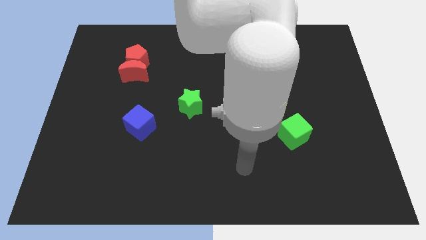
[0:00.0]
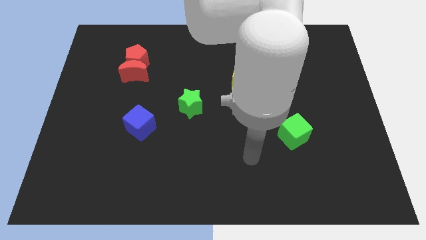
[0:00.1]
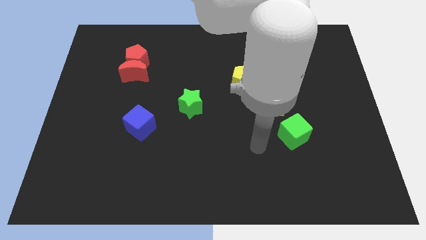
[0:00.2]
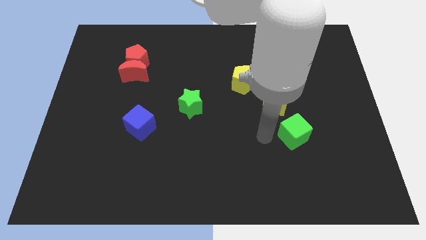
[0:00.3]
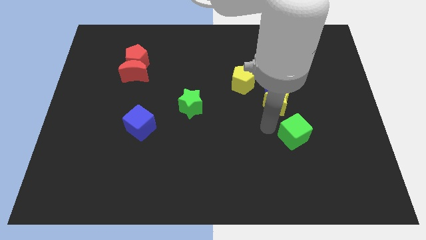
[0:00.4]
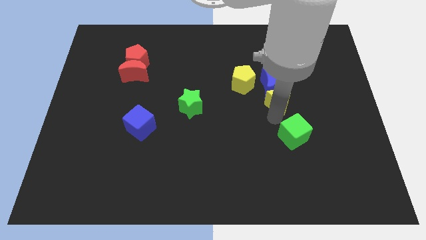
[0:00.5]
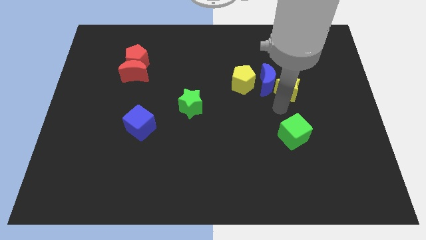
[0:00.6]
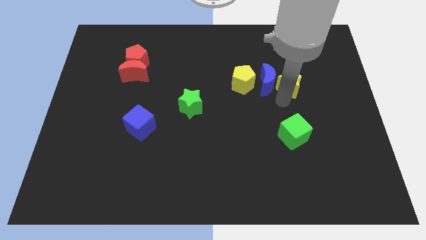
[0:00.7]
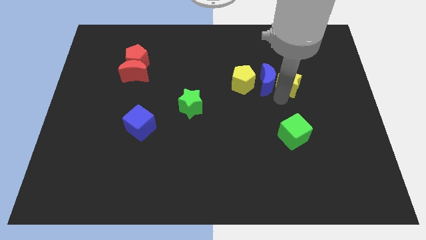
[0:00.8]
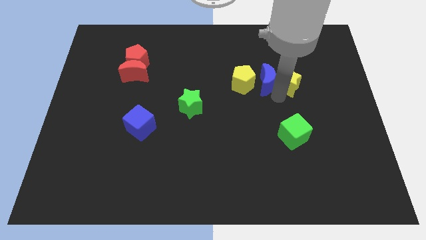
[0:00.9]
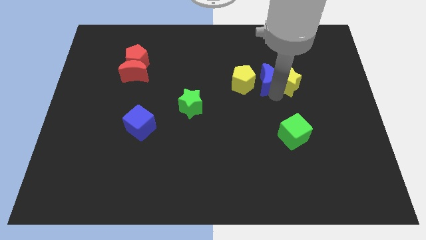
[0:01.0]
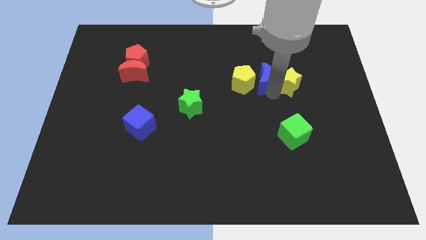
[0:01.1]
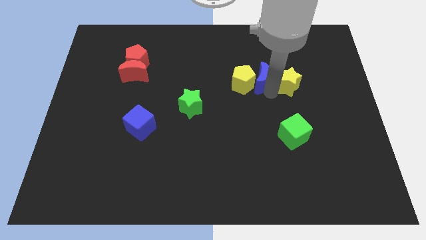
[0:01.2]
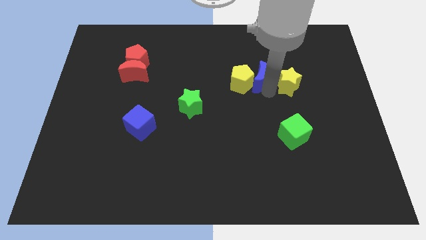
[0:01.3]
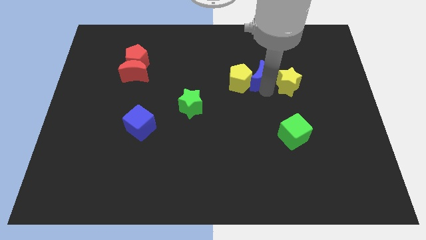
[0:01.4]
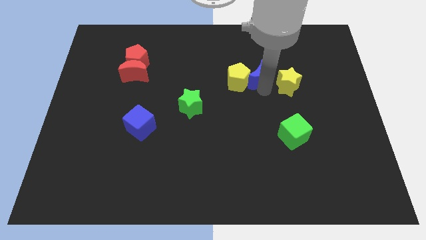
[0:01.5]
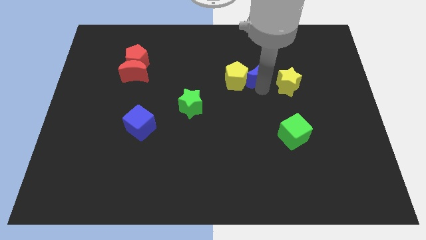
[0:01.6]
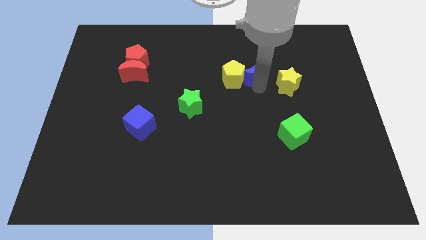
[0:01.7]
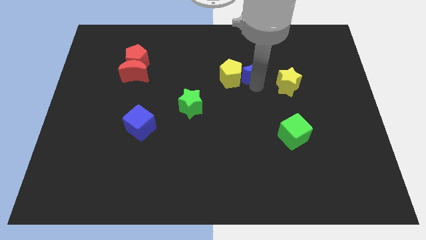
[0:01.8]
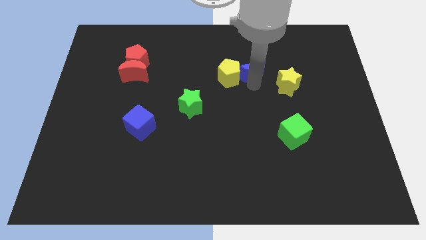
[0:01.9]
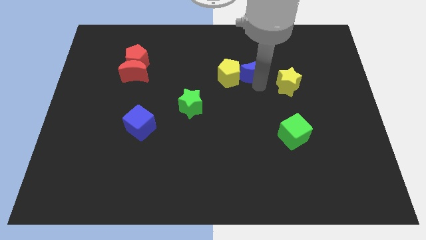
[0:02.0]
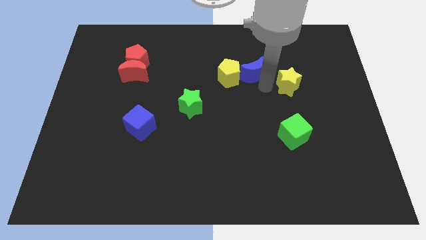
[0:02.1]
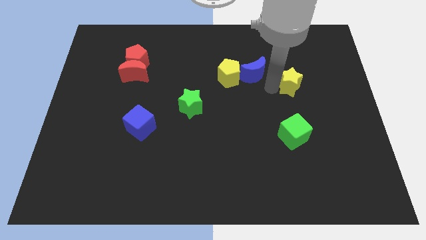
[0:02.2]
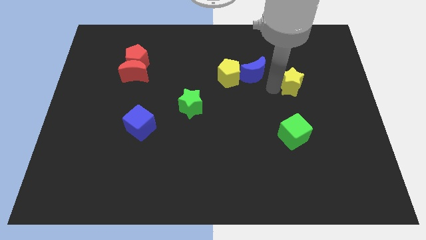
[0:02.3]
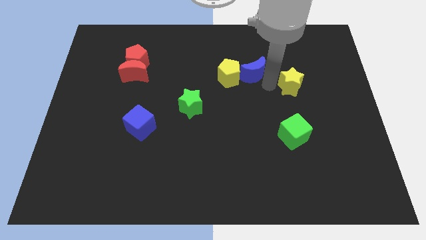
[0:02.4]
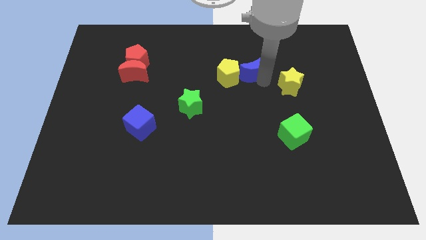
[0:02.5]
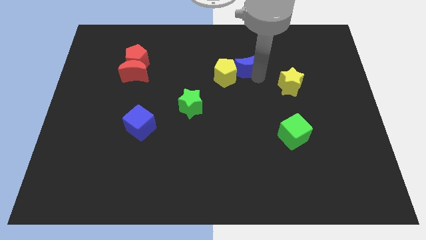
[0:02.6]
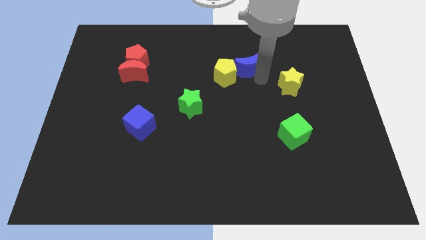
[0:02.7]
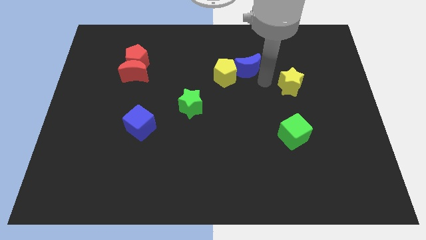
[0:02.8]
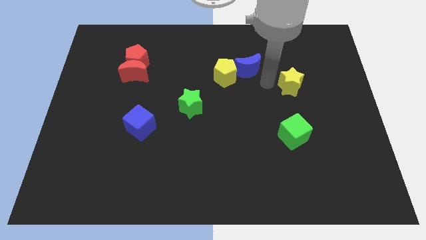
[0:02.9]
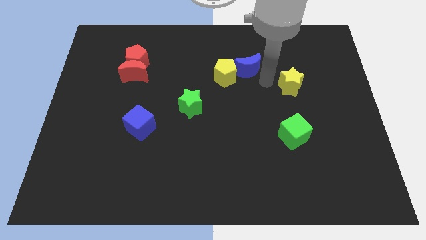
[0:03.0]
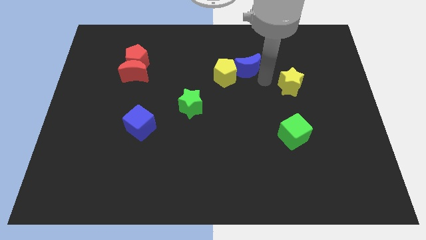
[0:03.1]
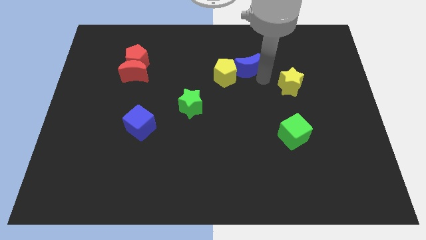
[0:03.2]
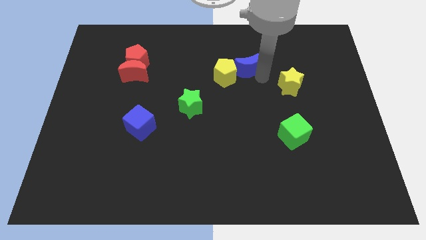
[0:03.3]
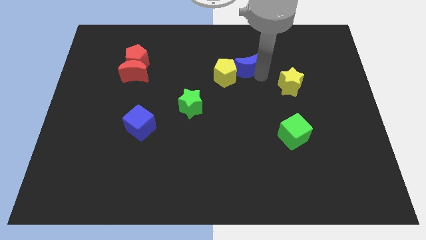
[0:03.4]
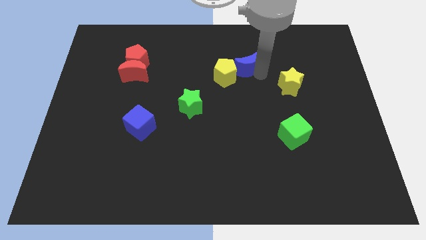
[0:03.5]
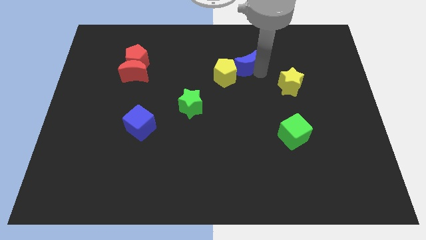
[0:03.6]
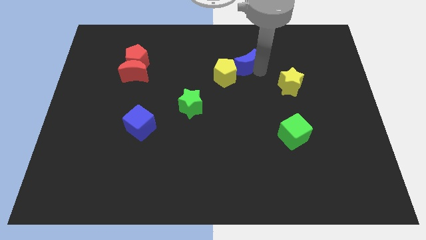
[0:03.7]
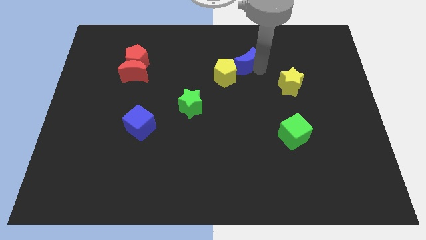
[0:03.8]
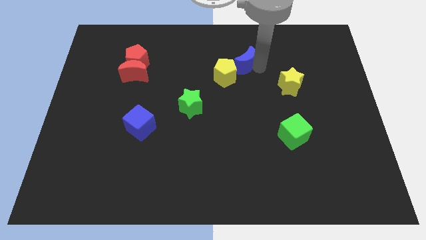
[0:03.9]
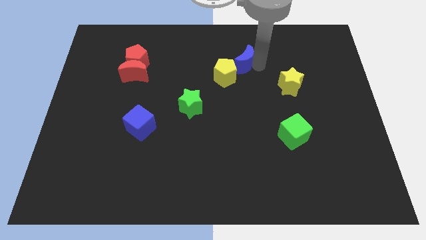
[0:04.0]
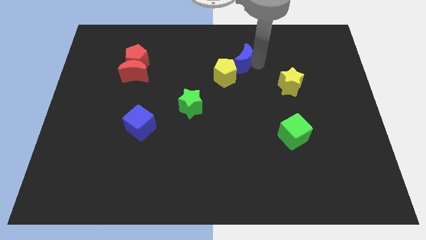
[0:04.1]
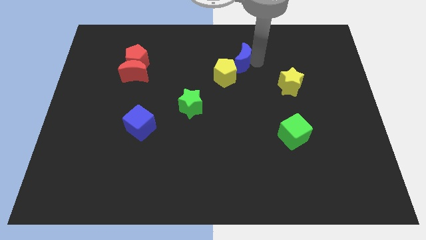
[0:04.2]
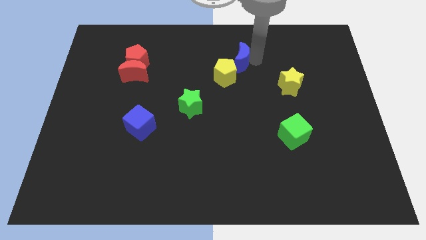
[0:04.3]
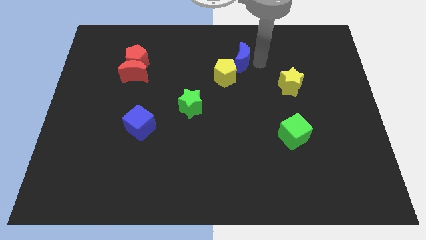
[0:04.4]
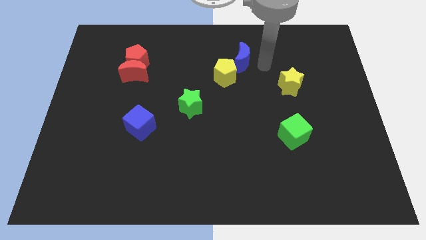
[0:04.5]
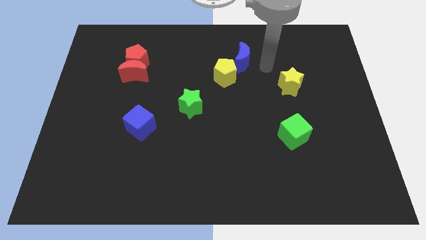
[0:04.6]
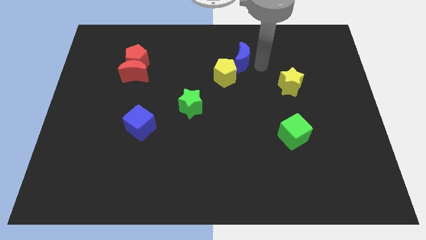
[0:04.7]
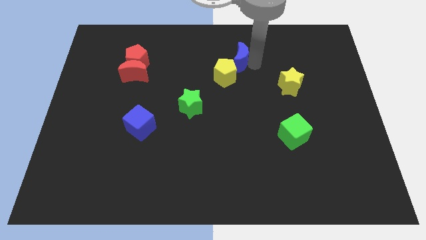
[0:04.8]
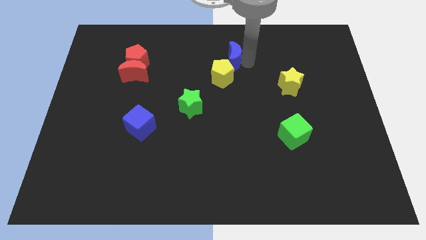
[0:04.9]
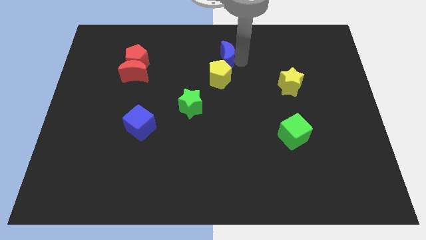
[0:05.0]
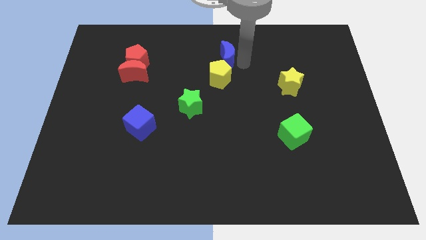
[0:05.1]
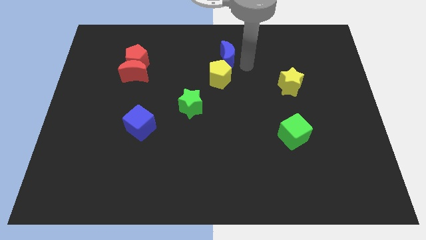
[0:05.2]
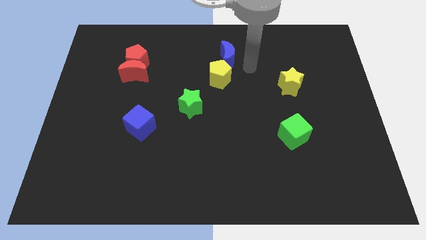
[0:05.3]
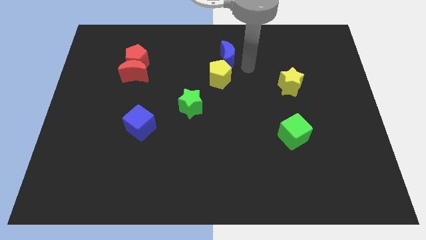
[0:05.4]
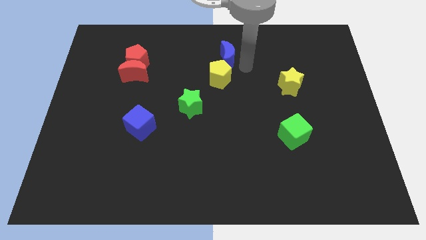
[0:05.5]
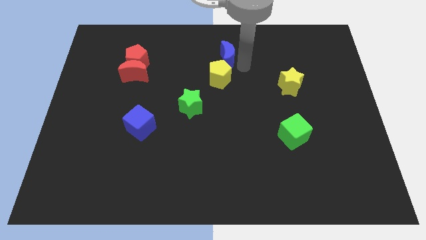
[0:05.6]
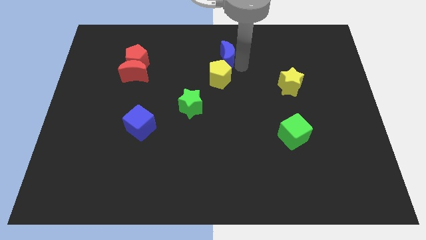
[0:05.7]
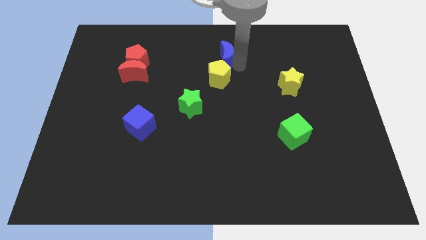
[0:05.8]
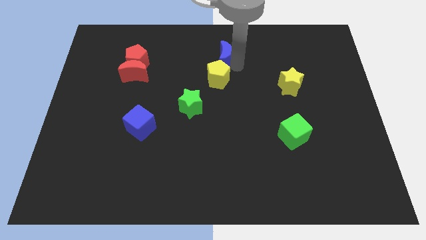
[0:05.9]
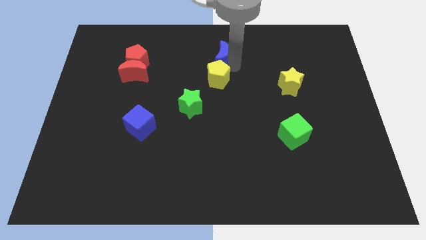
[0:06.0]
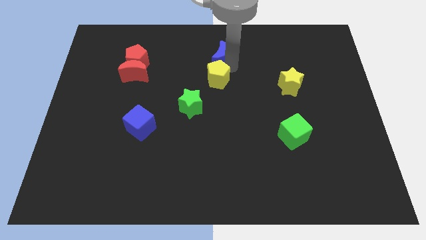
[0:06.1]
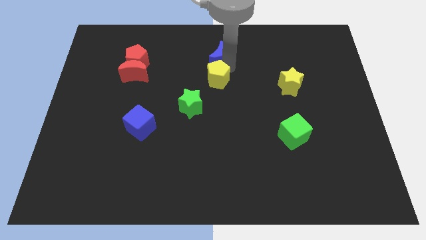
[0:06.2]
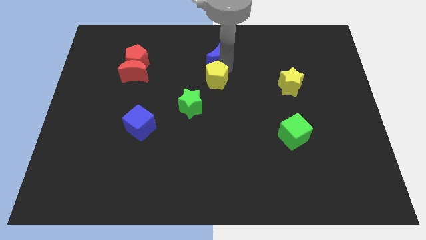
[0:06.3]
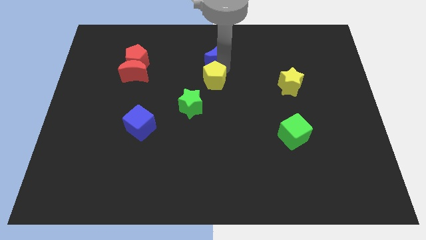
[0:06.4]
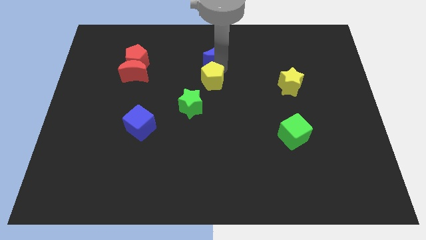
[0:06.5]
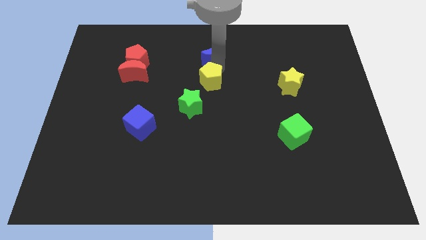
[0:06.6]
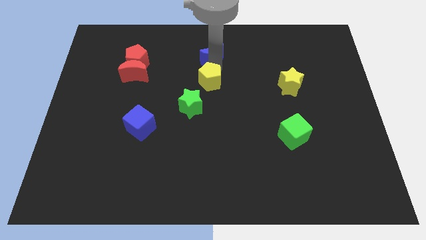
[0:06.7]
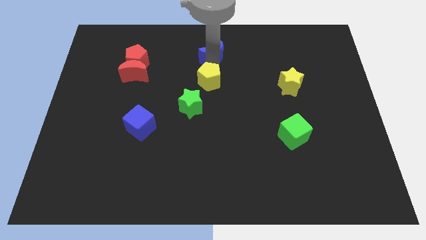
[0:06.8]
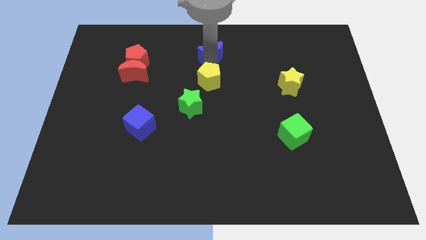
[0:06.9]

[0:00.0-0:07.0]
slide the blue moon to the top side
